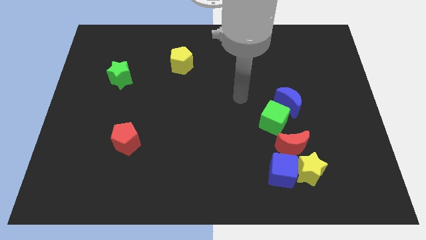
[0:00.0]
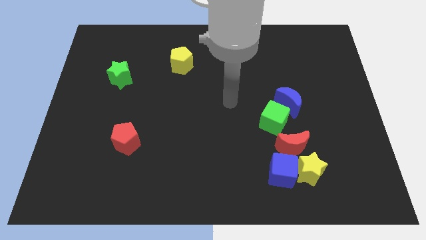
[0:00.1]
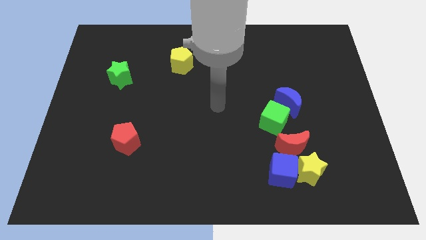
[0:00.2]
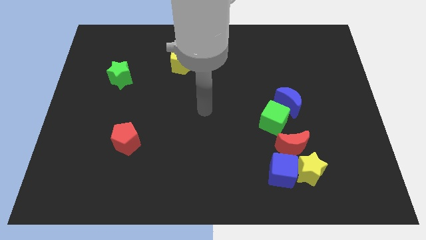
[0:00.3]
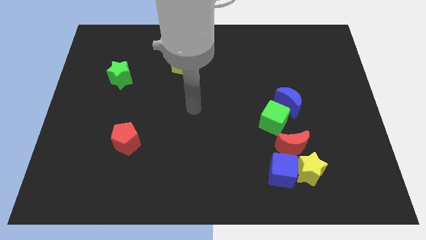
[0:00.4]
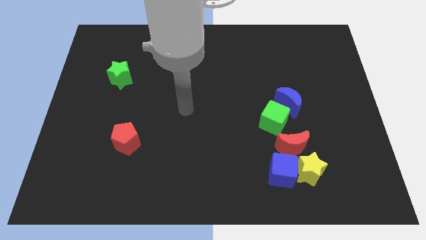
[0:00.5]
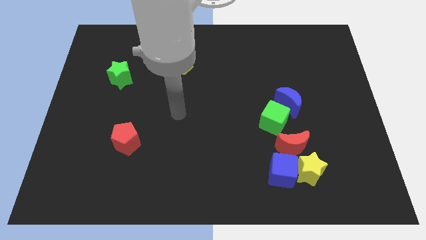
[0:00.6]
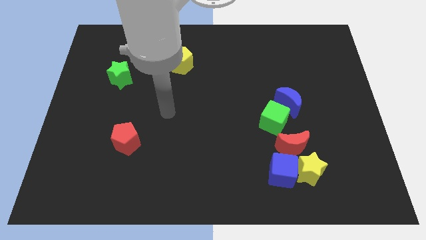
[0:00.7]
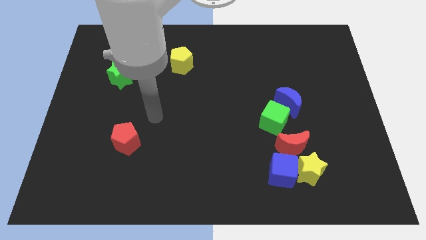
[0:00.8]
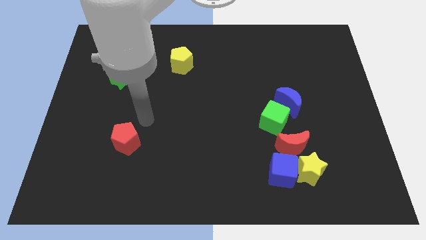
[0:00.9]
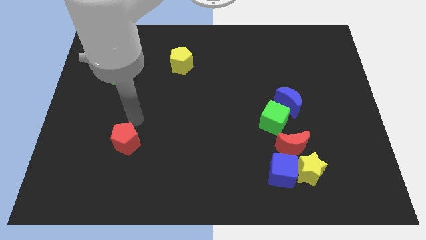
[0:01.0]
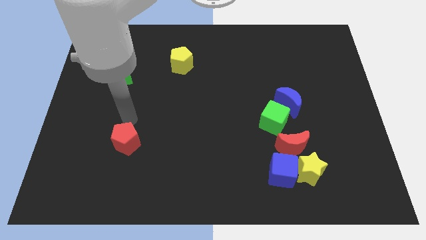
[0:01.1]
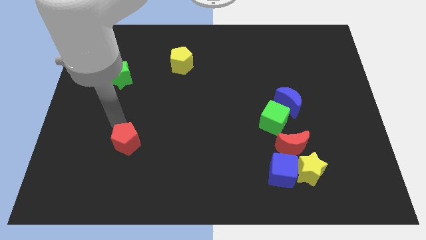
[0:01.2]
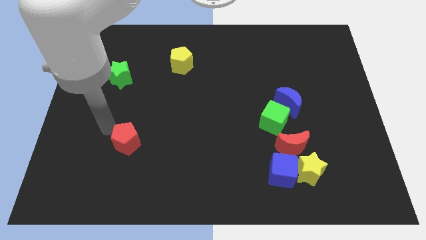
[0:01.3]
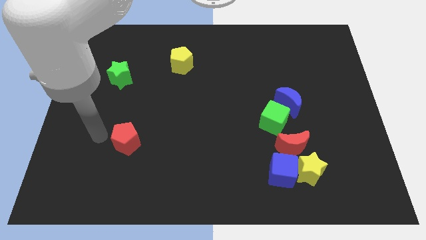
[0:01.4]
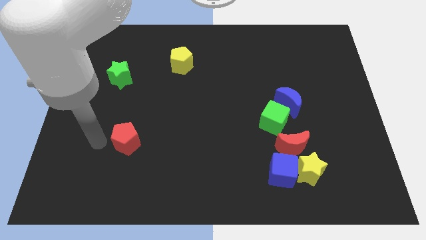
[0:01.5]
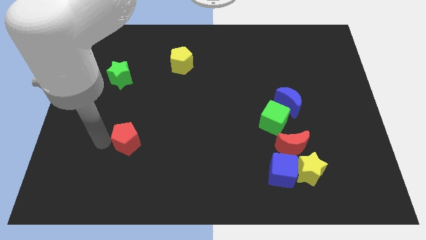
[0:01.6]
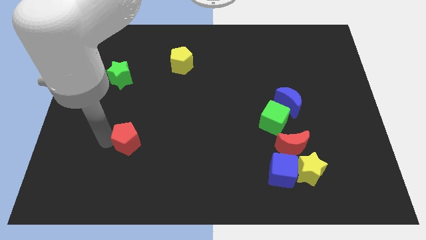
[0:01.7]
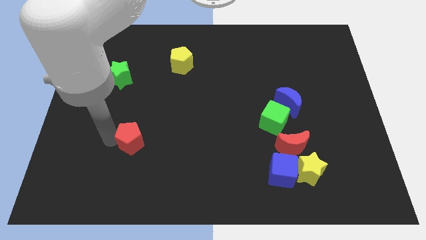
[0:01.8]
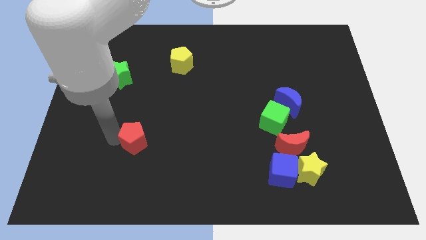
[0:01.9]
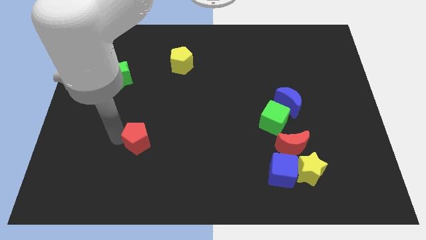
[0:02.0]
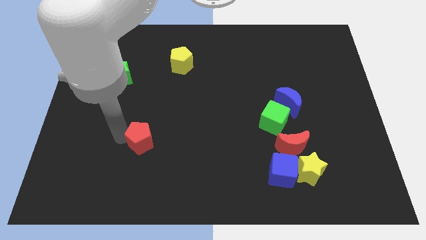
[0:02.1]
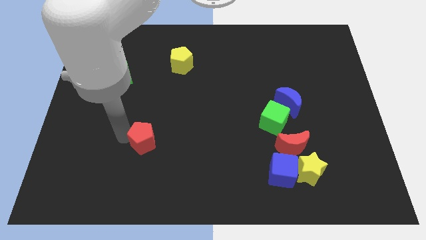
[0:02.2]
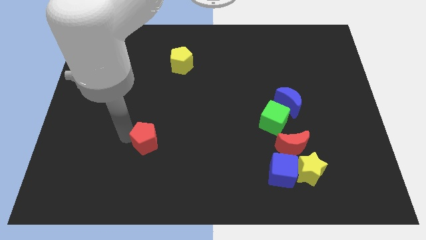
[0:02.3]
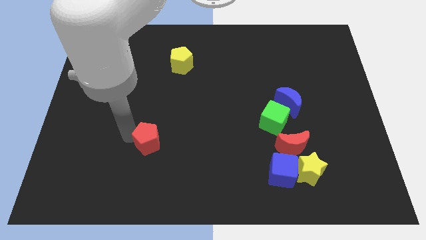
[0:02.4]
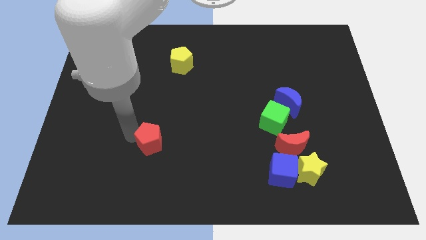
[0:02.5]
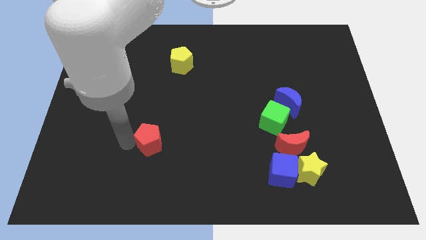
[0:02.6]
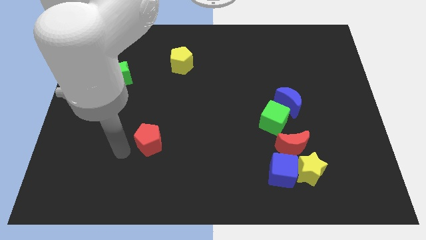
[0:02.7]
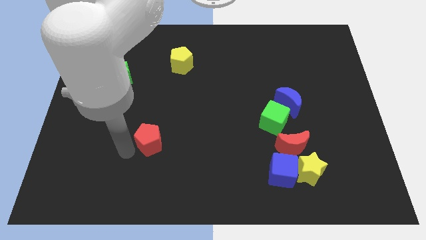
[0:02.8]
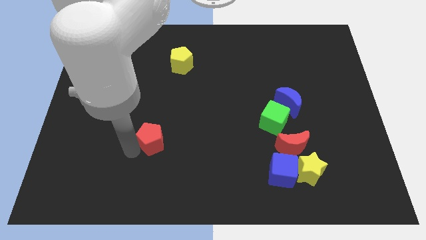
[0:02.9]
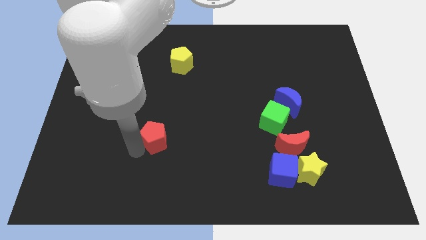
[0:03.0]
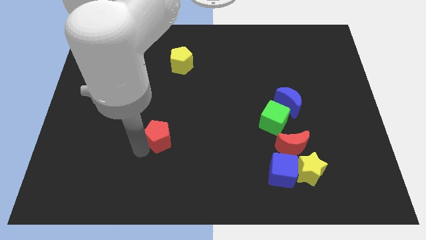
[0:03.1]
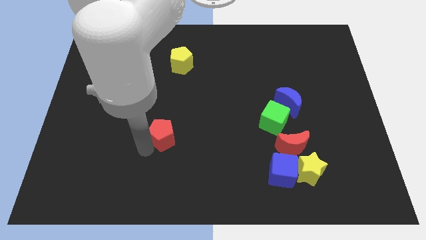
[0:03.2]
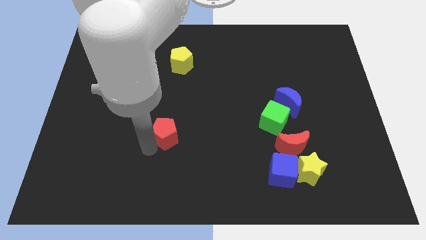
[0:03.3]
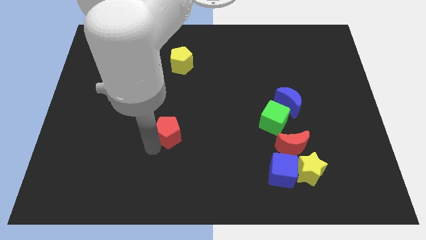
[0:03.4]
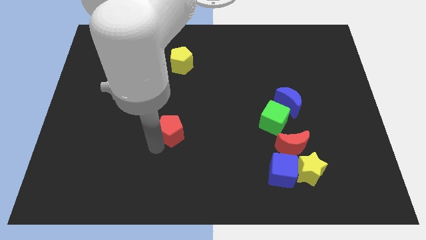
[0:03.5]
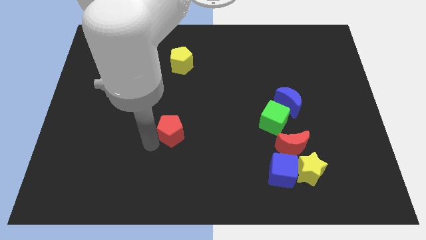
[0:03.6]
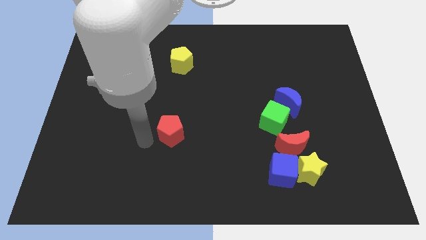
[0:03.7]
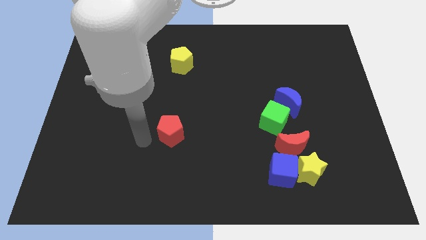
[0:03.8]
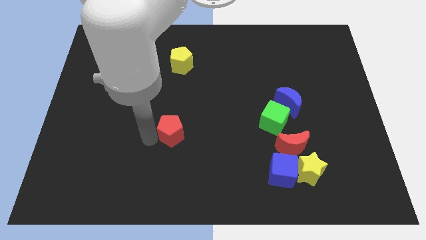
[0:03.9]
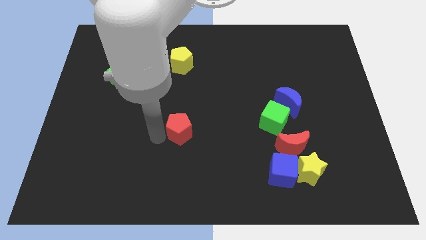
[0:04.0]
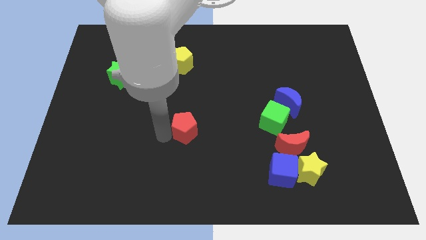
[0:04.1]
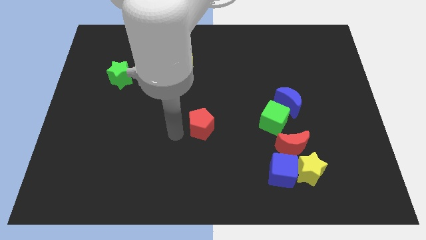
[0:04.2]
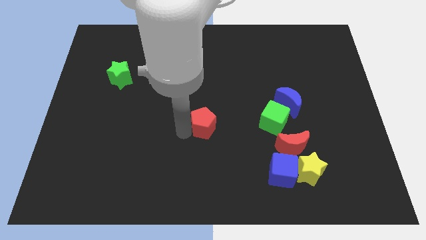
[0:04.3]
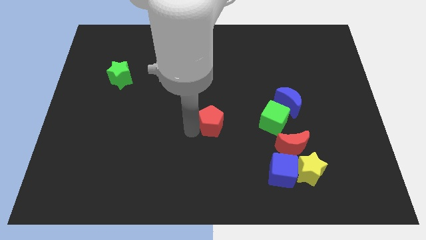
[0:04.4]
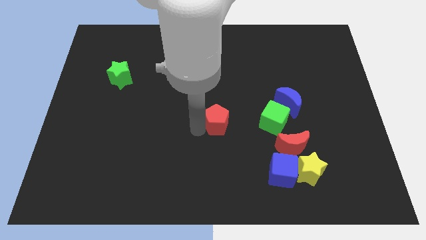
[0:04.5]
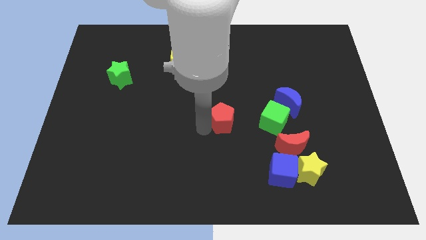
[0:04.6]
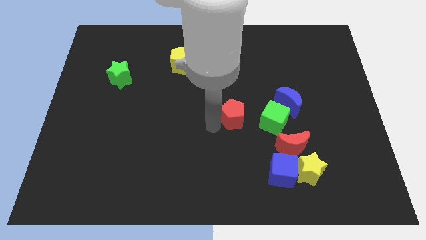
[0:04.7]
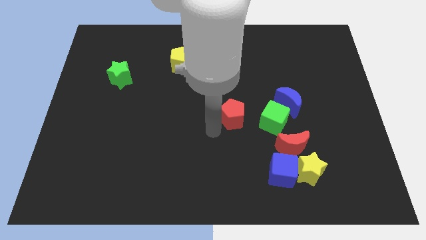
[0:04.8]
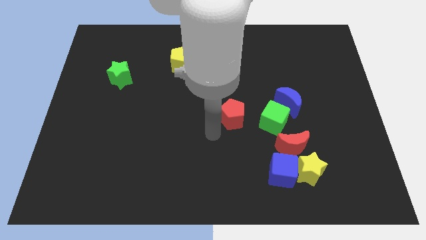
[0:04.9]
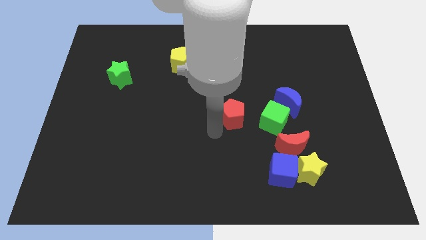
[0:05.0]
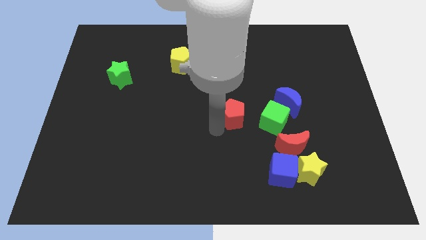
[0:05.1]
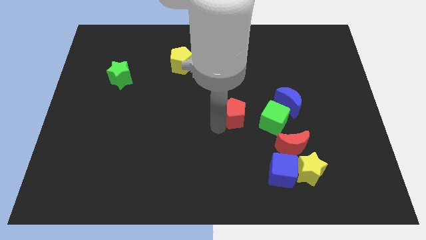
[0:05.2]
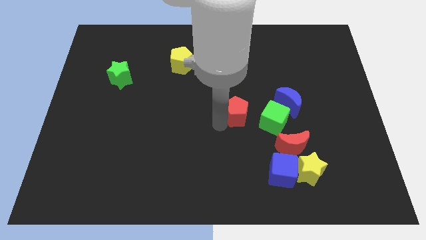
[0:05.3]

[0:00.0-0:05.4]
slide the red pentagon to the top left of the green cube

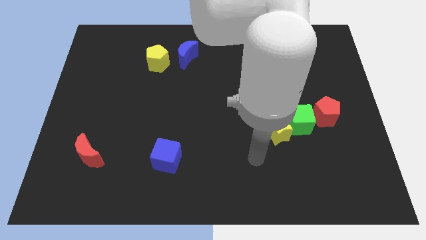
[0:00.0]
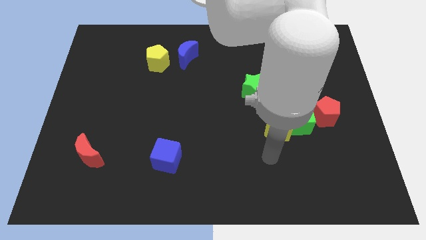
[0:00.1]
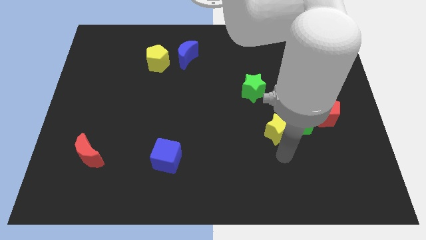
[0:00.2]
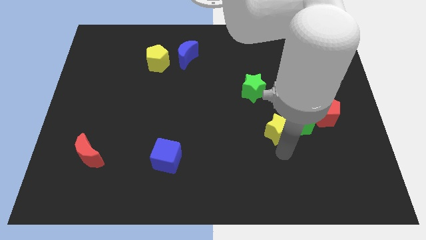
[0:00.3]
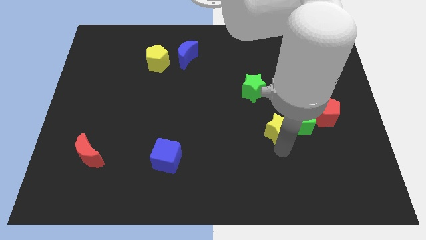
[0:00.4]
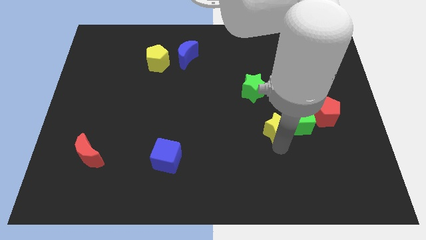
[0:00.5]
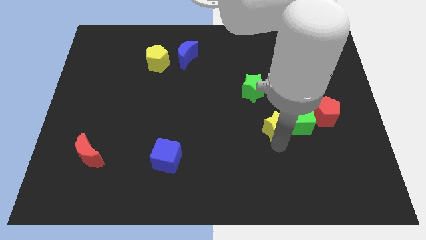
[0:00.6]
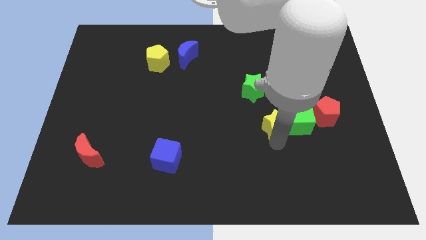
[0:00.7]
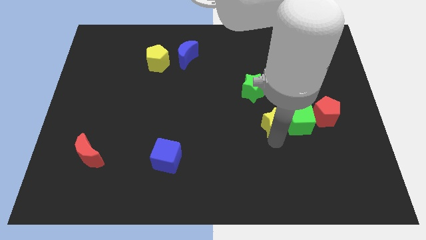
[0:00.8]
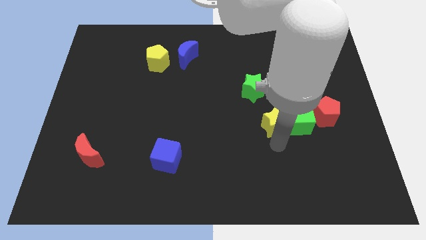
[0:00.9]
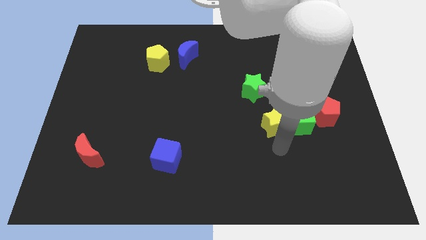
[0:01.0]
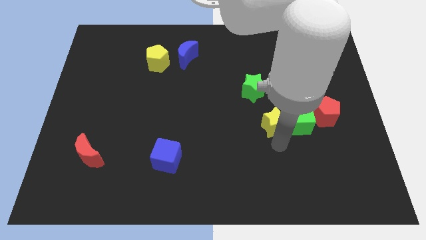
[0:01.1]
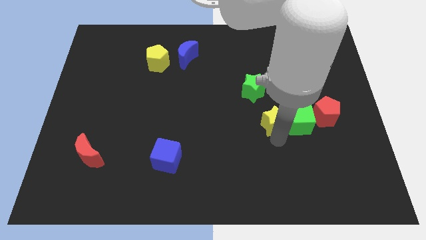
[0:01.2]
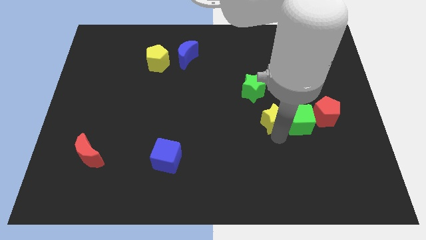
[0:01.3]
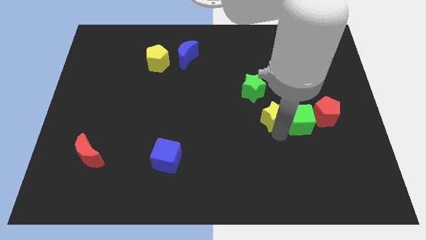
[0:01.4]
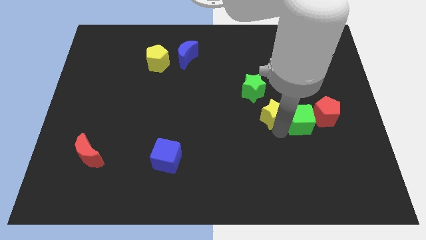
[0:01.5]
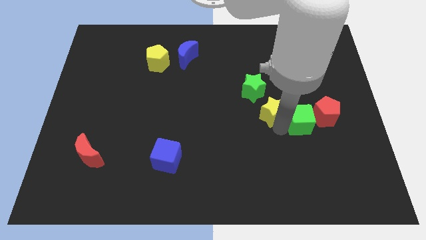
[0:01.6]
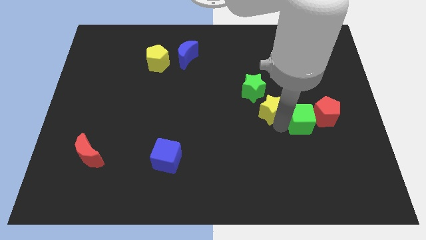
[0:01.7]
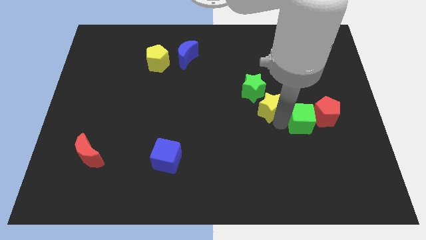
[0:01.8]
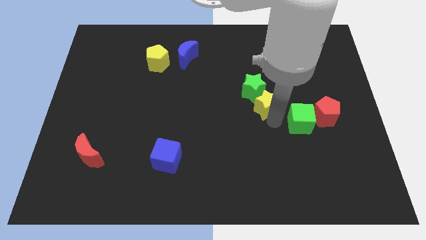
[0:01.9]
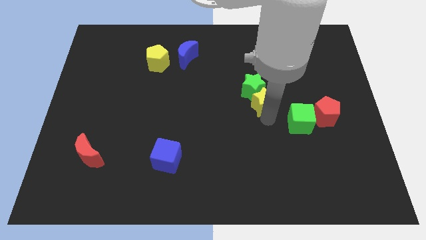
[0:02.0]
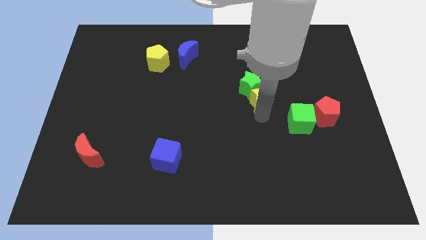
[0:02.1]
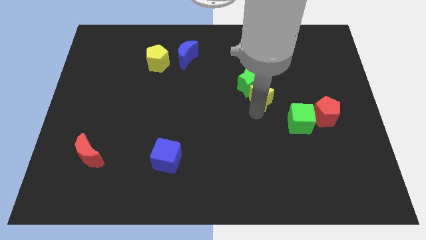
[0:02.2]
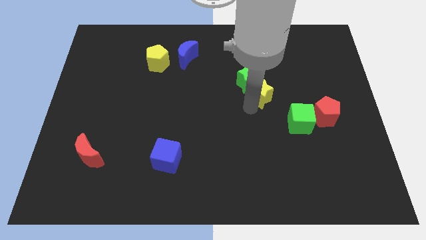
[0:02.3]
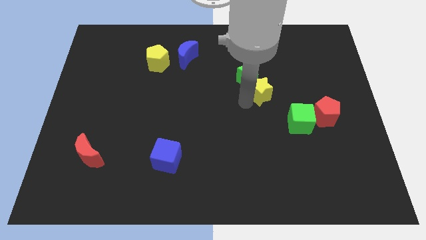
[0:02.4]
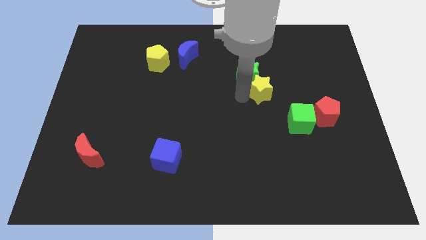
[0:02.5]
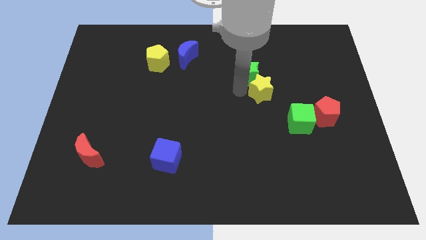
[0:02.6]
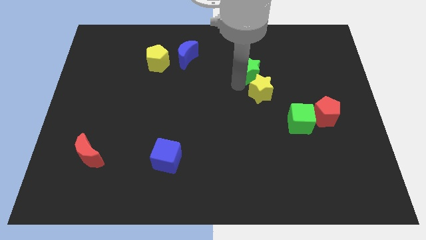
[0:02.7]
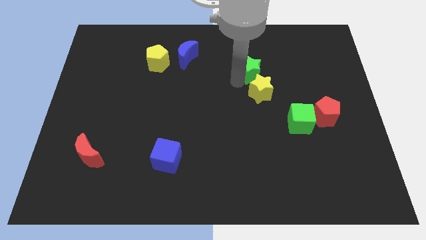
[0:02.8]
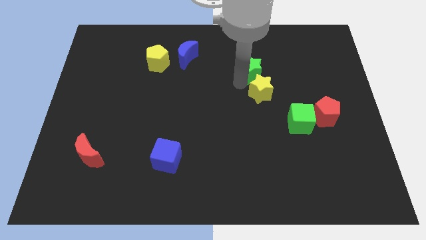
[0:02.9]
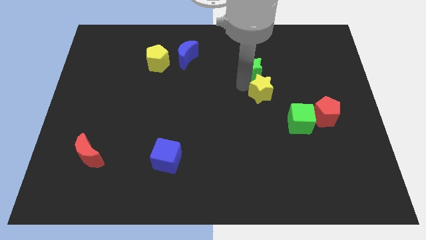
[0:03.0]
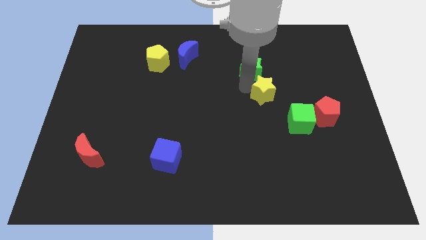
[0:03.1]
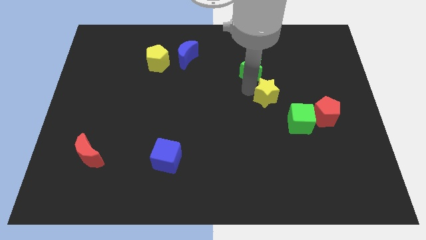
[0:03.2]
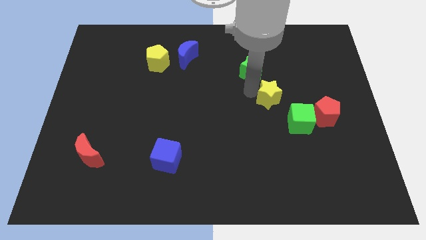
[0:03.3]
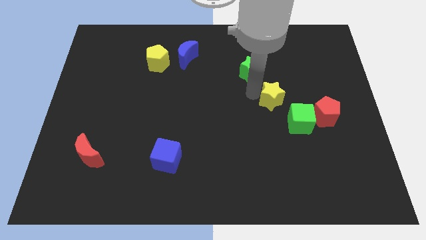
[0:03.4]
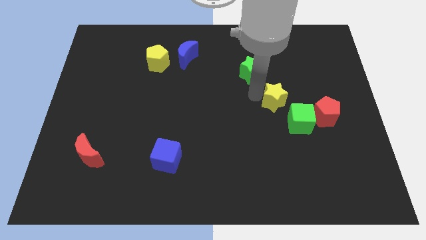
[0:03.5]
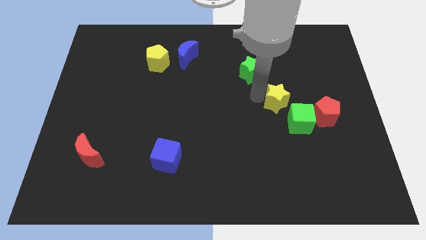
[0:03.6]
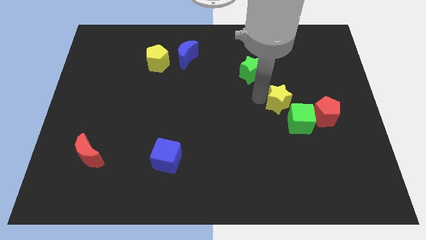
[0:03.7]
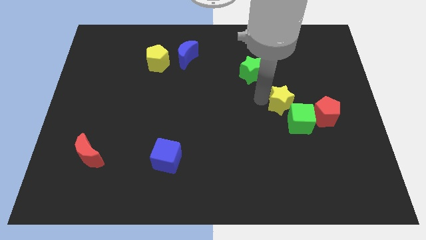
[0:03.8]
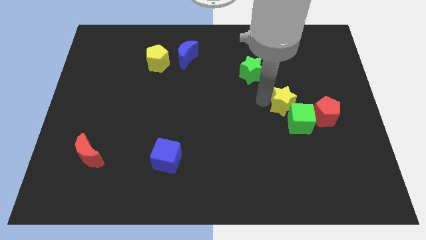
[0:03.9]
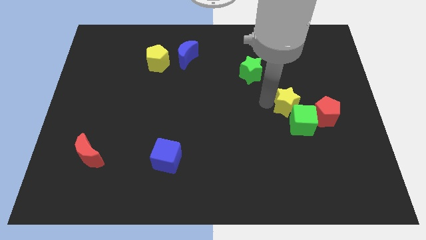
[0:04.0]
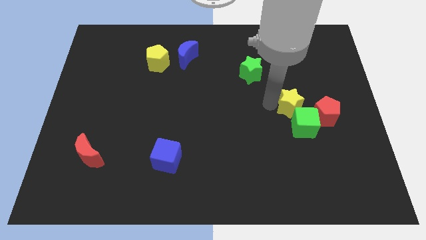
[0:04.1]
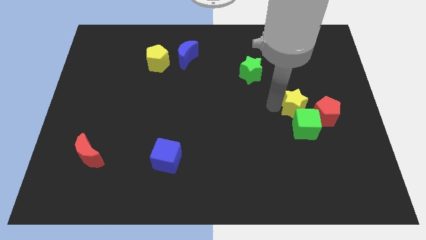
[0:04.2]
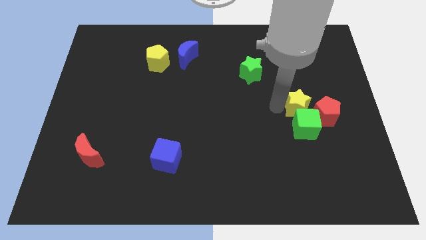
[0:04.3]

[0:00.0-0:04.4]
put the yellow star to the top right of the green cube
